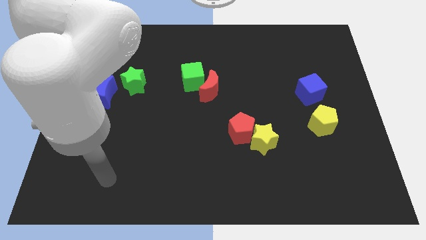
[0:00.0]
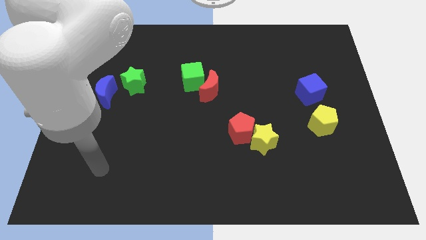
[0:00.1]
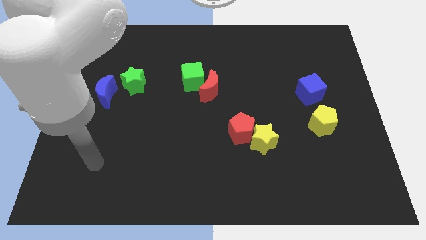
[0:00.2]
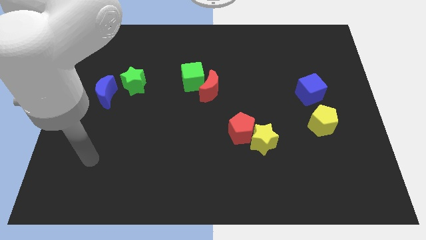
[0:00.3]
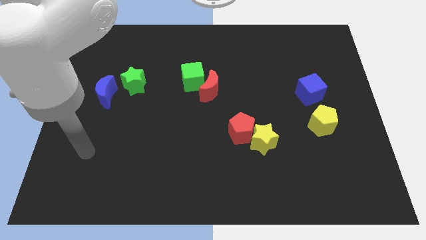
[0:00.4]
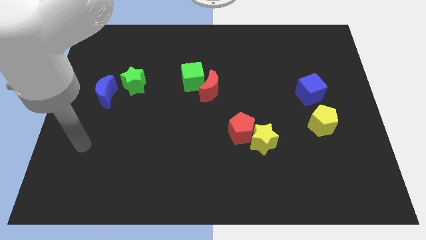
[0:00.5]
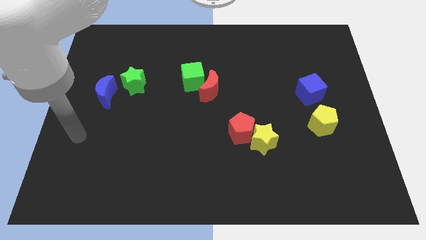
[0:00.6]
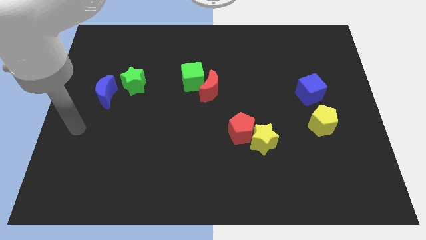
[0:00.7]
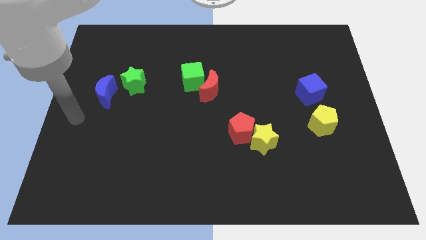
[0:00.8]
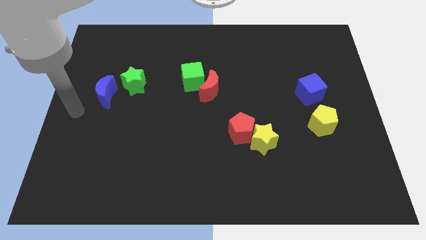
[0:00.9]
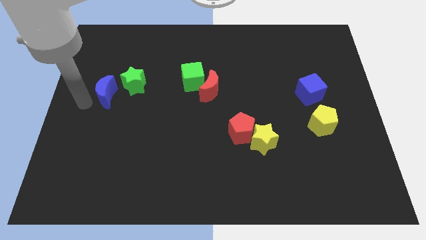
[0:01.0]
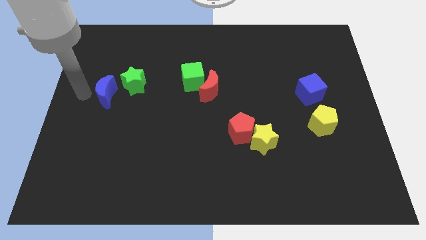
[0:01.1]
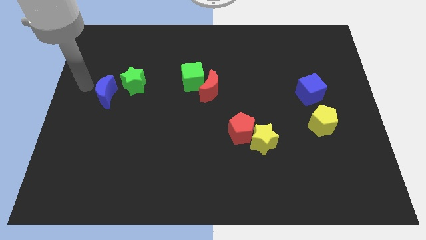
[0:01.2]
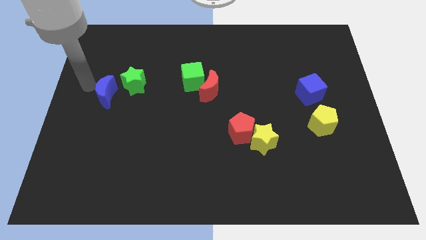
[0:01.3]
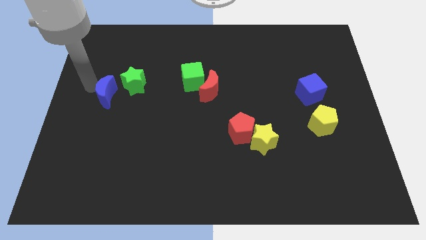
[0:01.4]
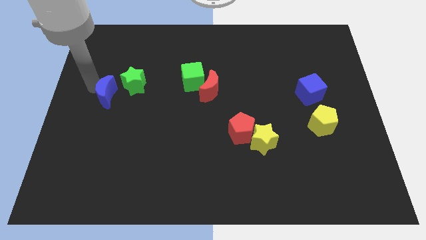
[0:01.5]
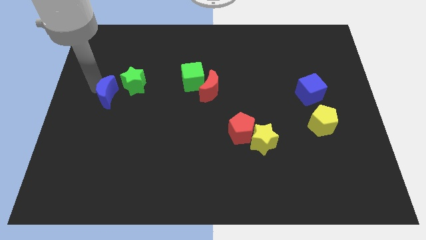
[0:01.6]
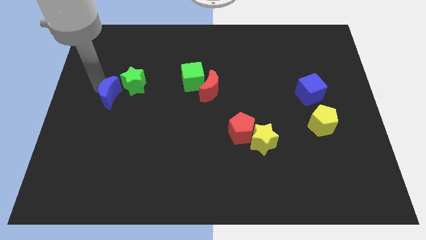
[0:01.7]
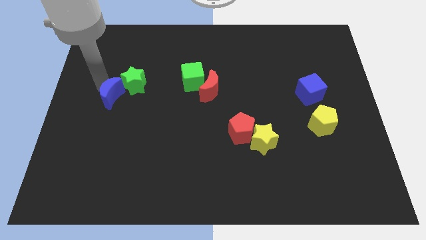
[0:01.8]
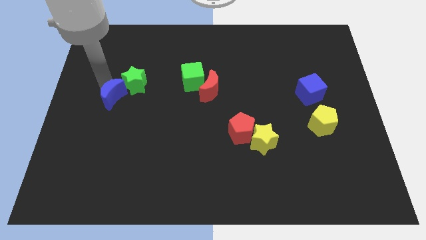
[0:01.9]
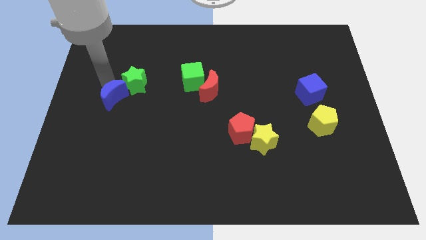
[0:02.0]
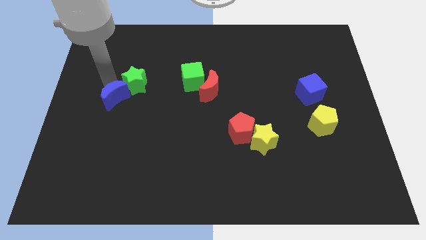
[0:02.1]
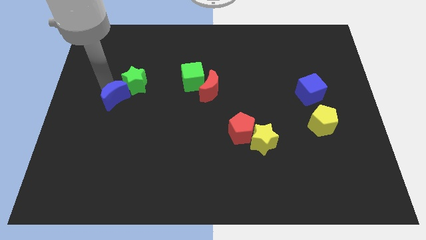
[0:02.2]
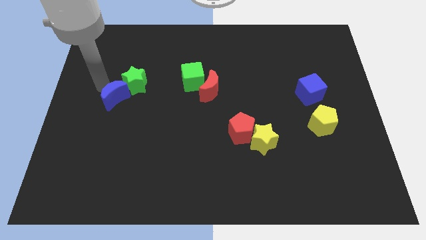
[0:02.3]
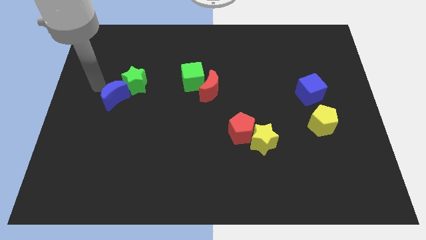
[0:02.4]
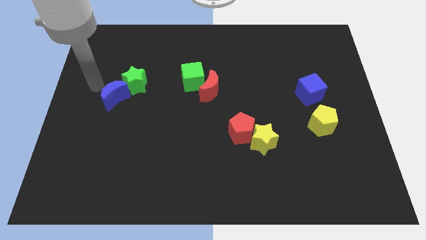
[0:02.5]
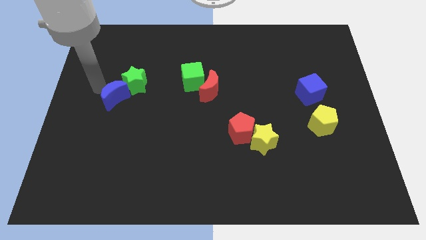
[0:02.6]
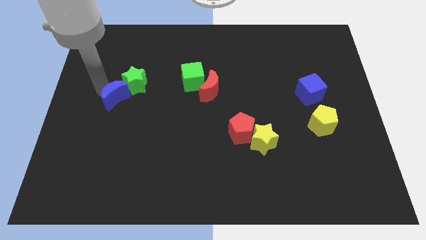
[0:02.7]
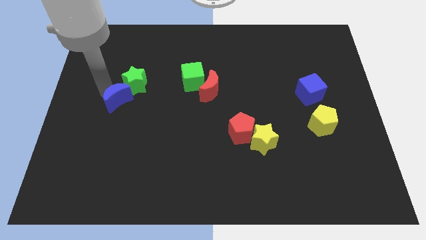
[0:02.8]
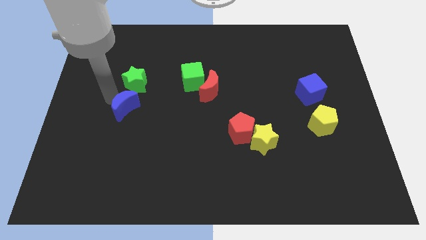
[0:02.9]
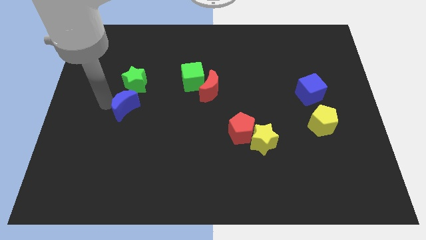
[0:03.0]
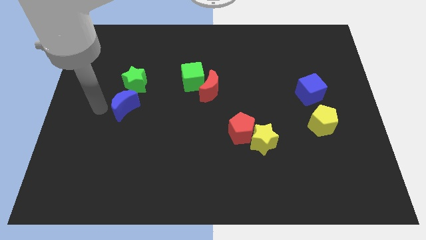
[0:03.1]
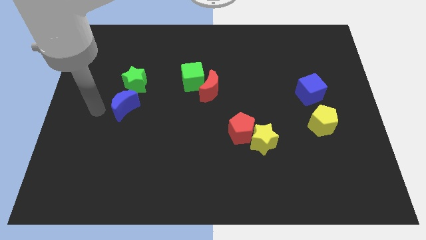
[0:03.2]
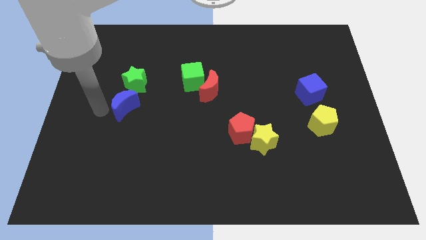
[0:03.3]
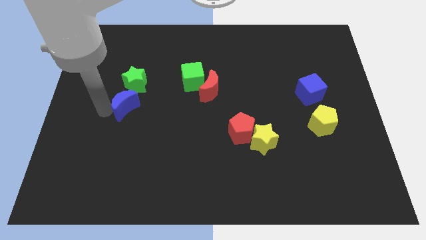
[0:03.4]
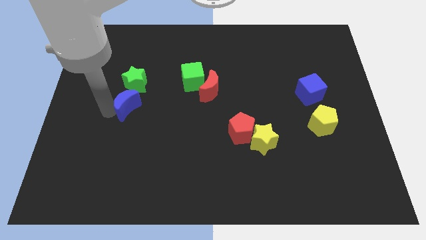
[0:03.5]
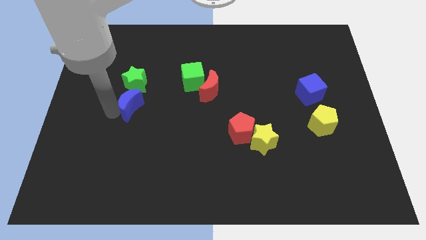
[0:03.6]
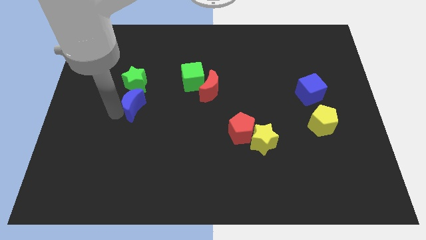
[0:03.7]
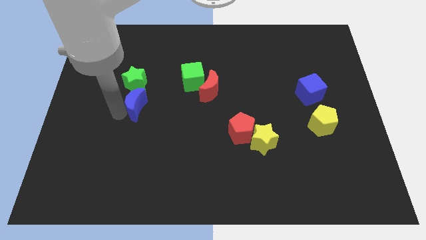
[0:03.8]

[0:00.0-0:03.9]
push the blue moon a bit to the right

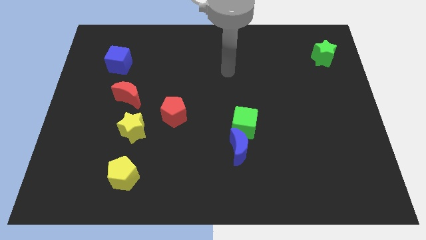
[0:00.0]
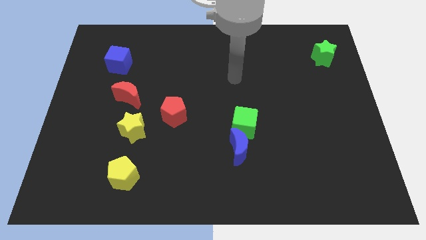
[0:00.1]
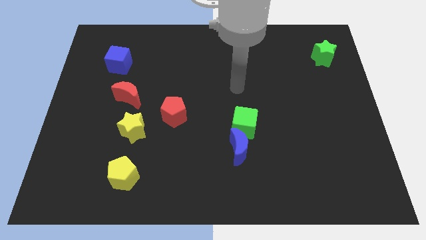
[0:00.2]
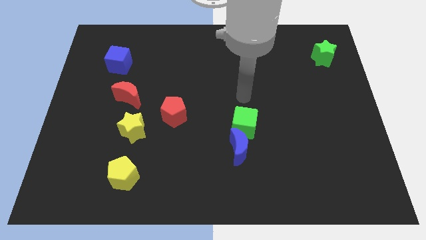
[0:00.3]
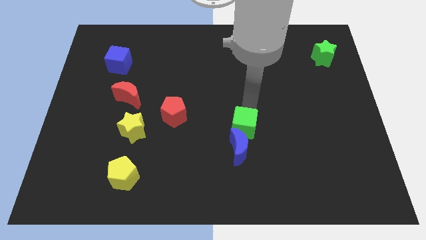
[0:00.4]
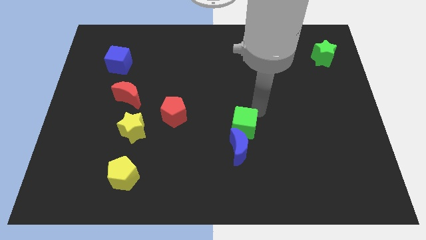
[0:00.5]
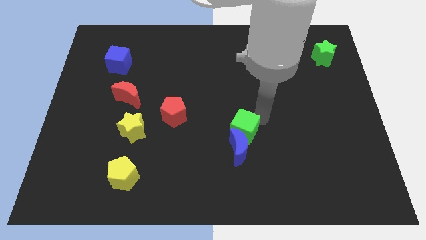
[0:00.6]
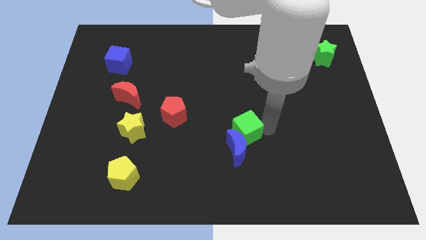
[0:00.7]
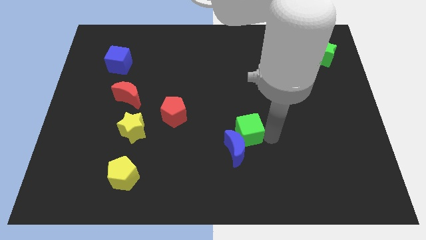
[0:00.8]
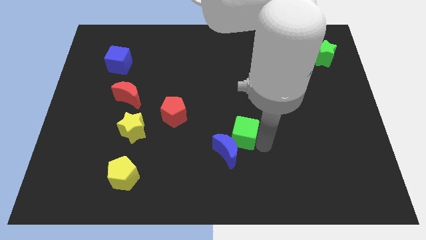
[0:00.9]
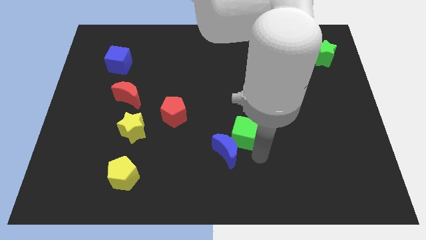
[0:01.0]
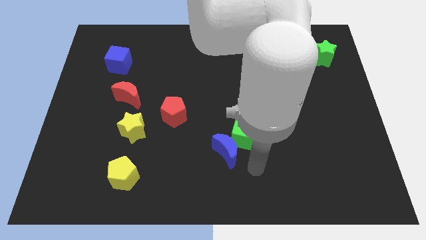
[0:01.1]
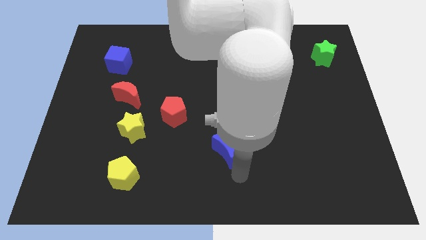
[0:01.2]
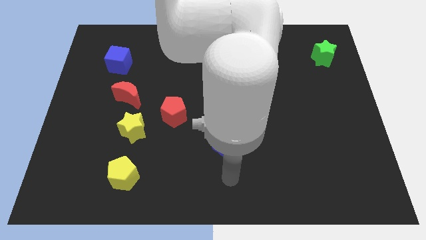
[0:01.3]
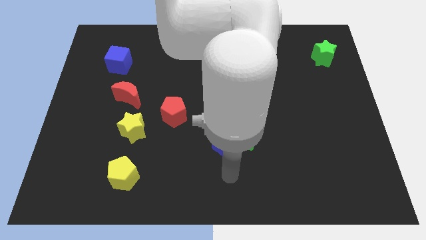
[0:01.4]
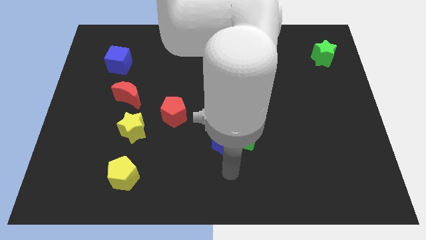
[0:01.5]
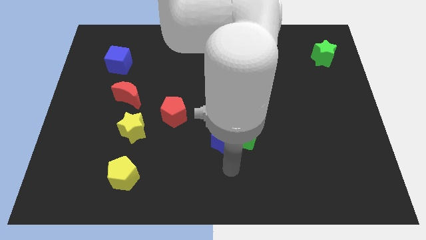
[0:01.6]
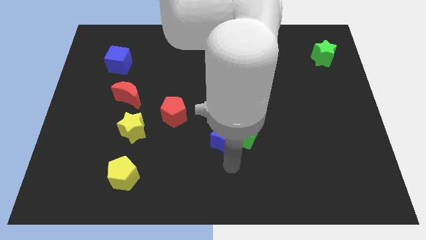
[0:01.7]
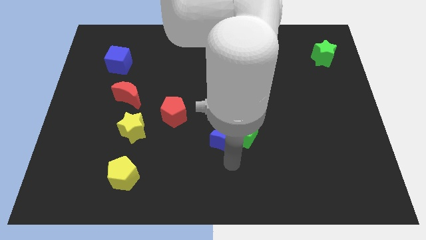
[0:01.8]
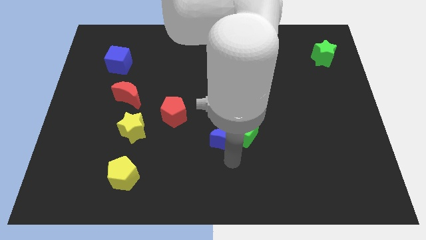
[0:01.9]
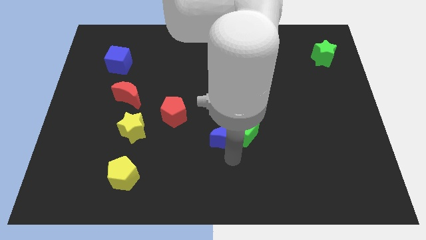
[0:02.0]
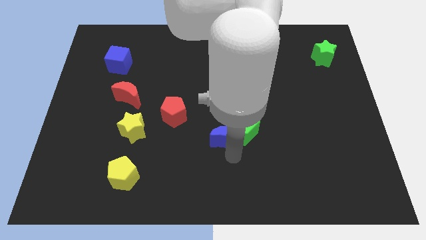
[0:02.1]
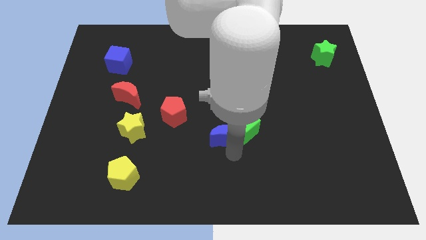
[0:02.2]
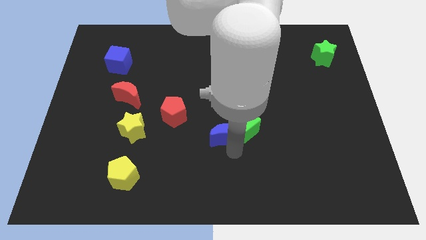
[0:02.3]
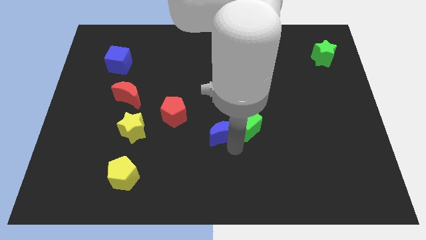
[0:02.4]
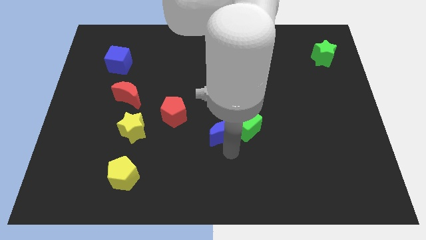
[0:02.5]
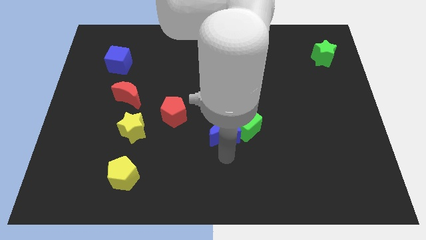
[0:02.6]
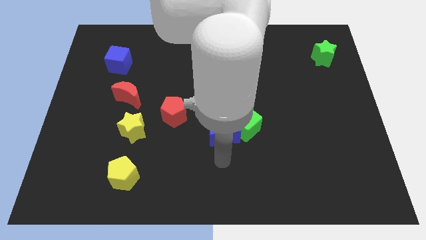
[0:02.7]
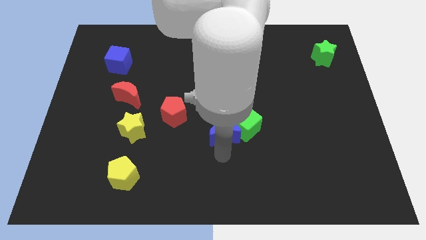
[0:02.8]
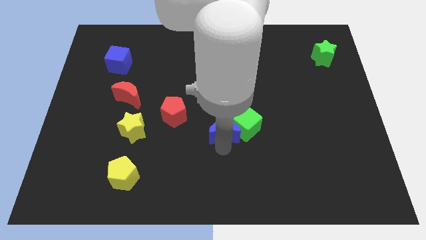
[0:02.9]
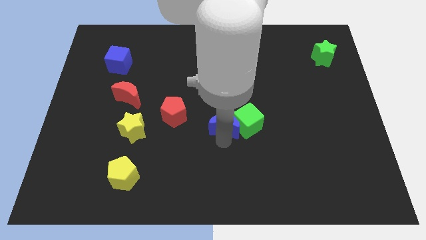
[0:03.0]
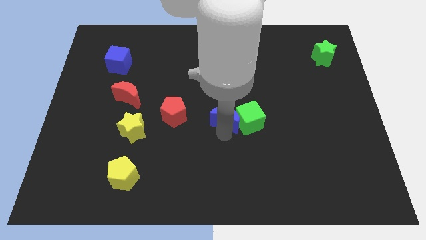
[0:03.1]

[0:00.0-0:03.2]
slightly push the blue moon upwards

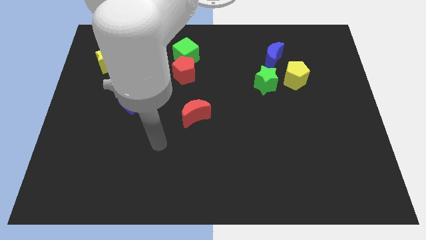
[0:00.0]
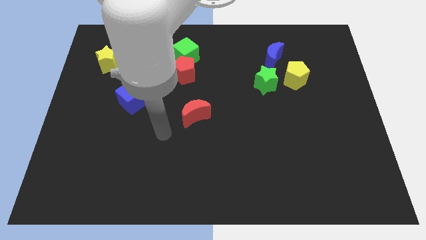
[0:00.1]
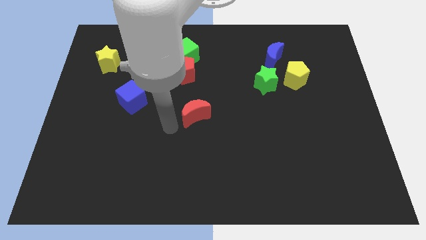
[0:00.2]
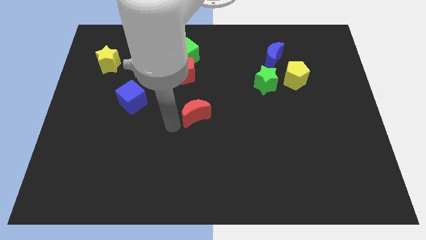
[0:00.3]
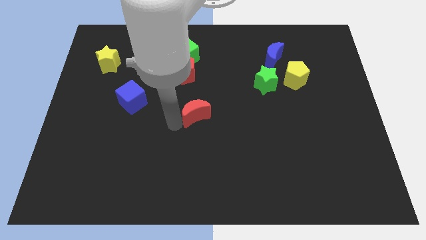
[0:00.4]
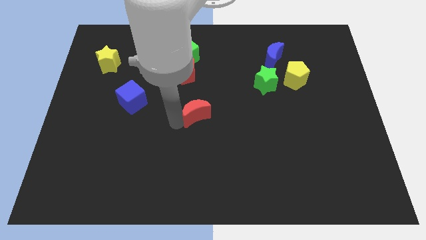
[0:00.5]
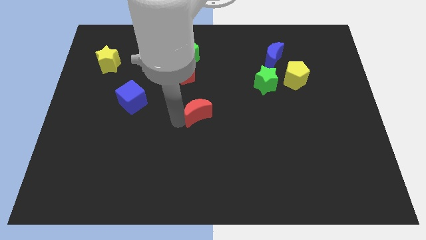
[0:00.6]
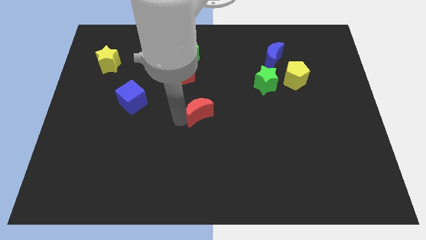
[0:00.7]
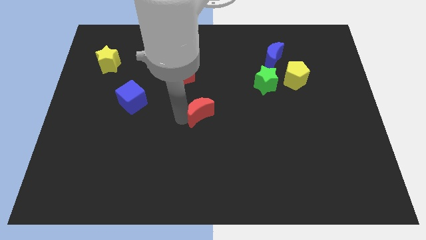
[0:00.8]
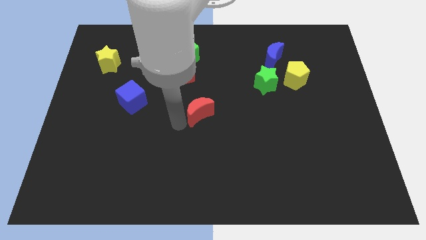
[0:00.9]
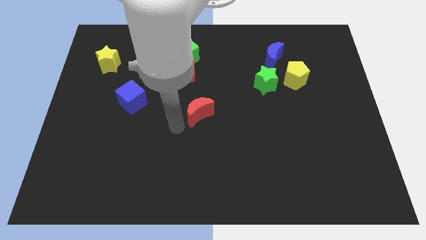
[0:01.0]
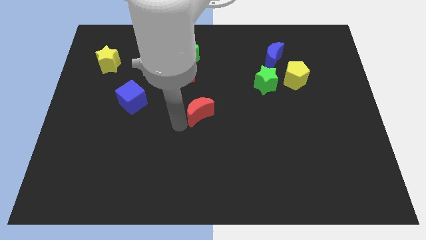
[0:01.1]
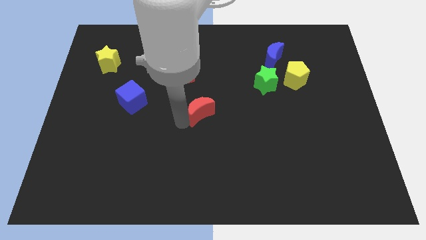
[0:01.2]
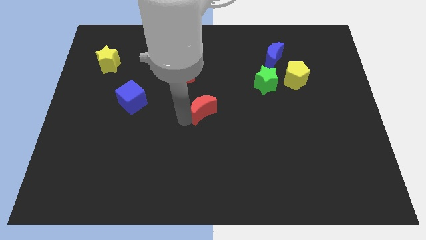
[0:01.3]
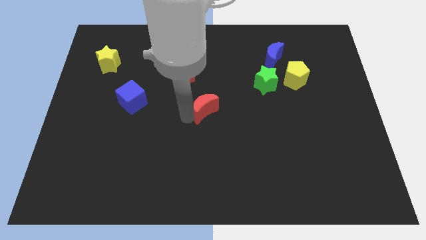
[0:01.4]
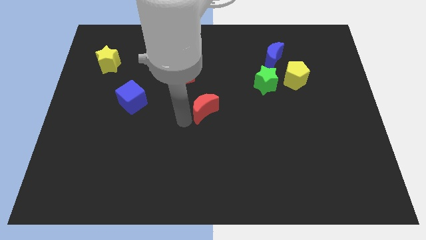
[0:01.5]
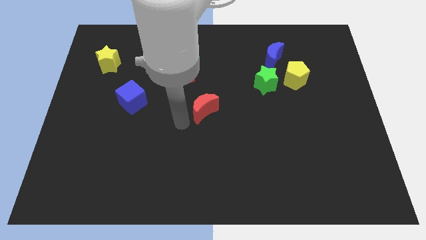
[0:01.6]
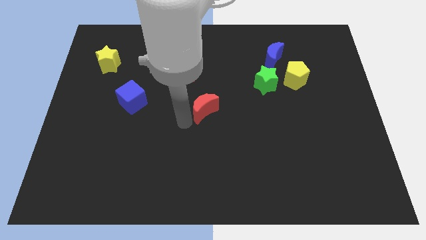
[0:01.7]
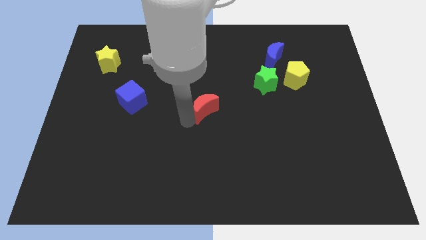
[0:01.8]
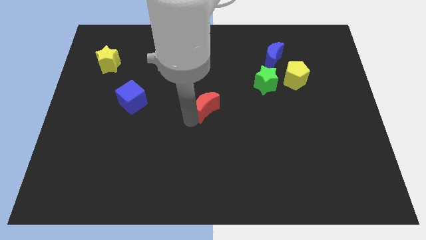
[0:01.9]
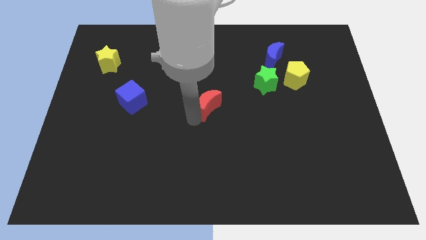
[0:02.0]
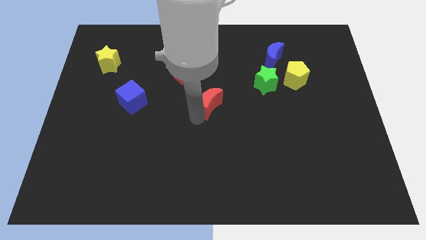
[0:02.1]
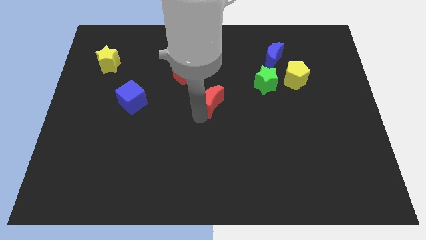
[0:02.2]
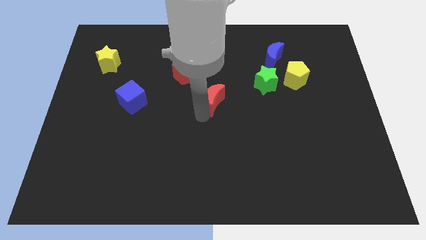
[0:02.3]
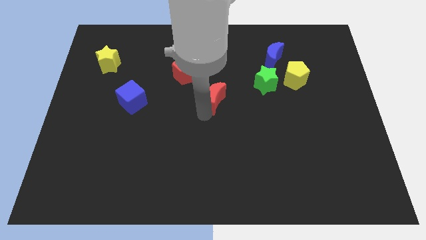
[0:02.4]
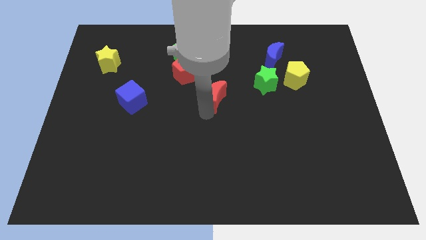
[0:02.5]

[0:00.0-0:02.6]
slightly push the red moon upwards and then right
